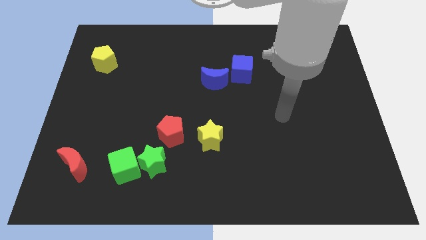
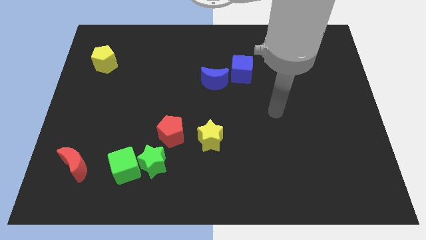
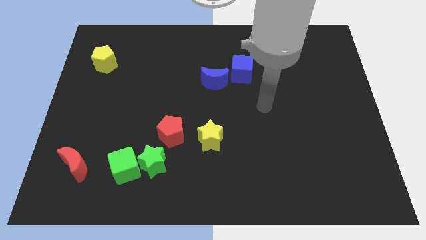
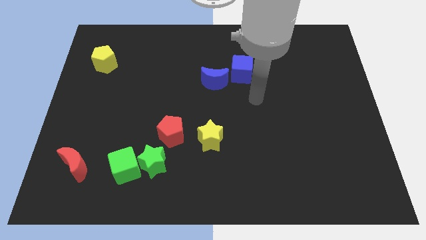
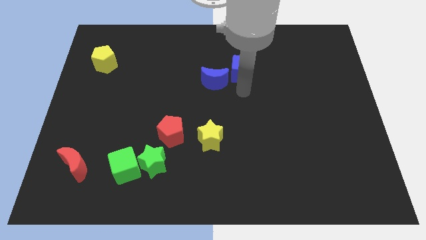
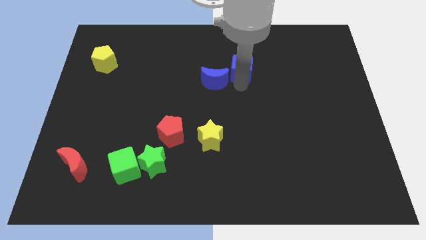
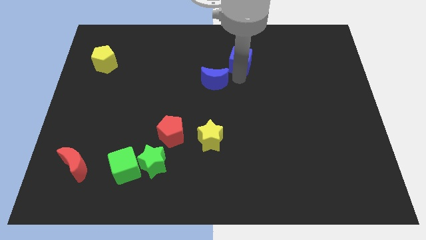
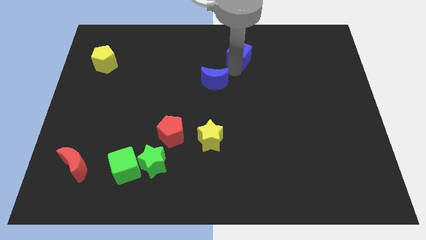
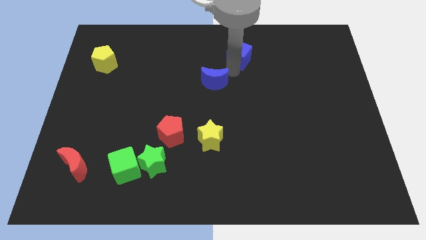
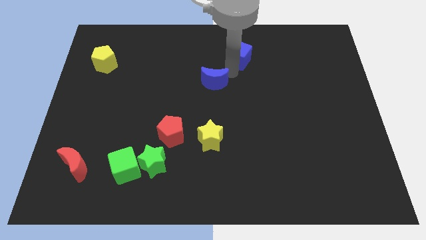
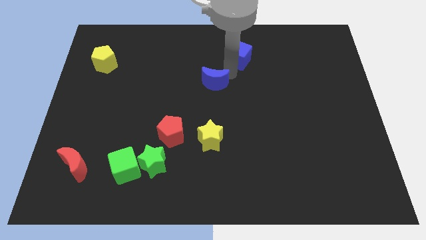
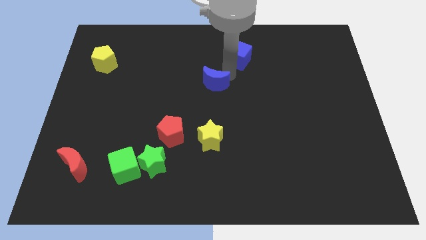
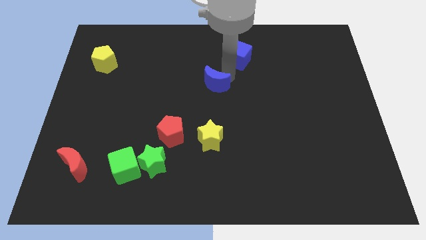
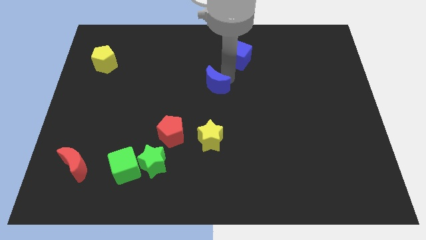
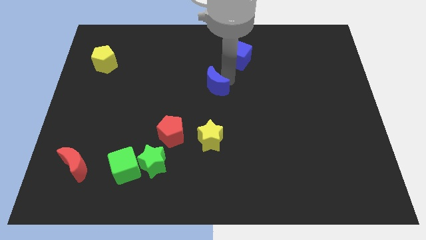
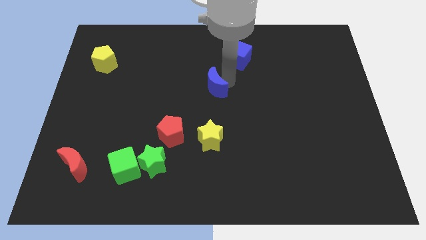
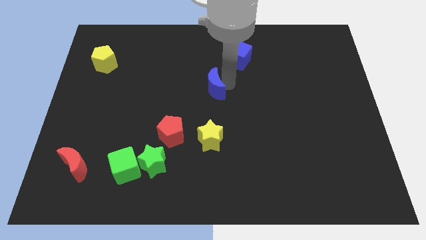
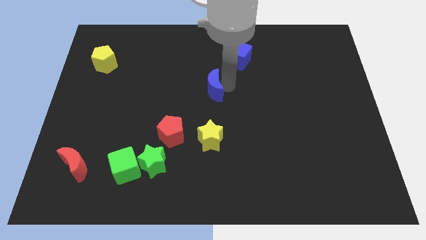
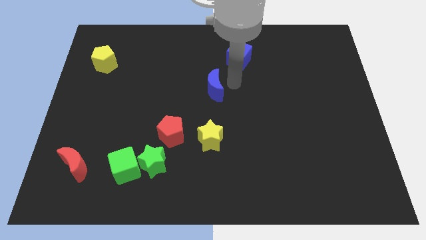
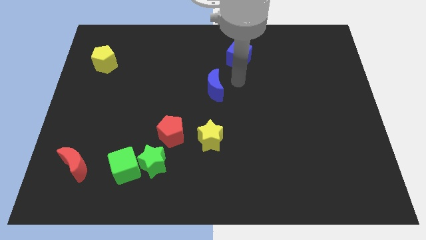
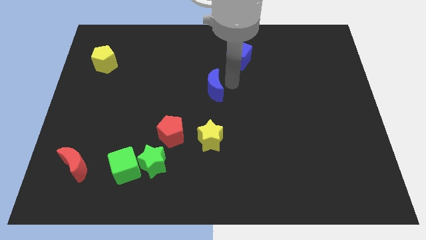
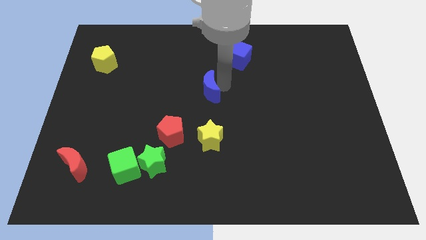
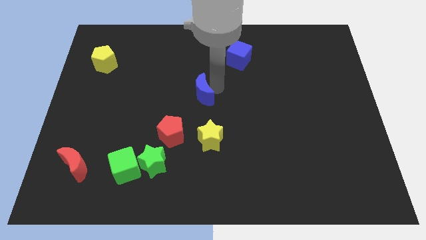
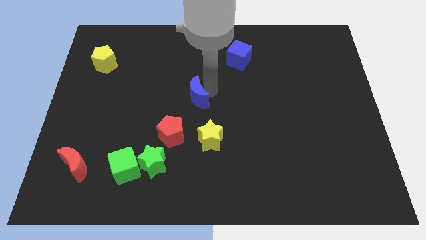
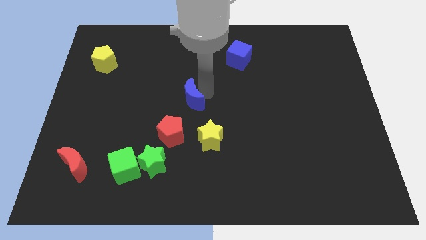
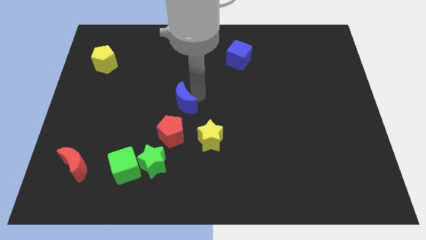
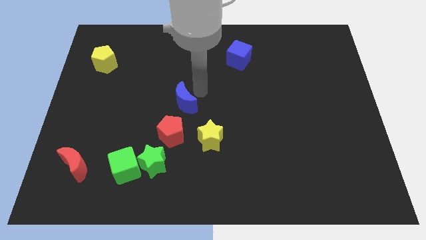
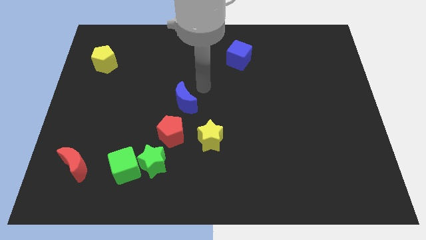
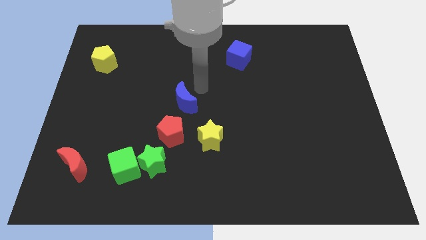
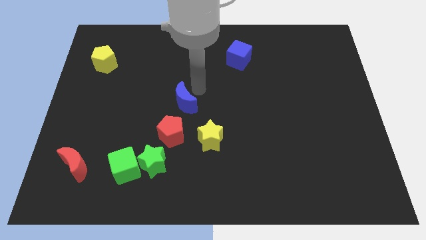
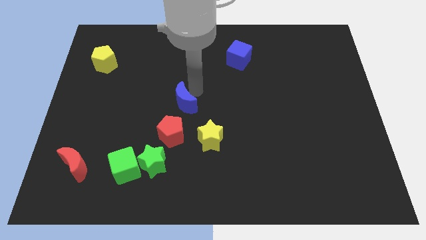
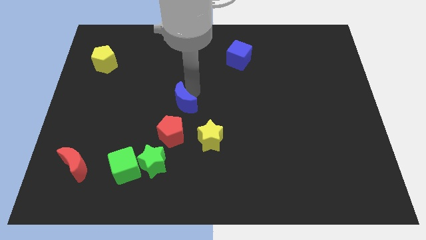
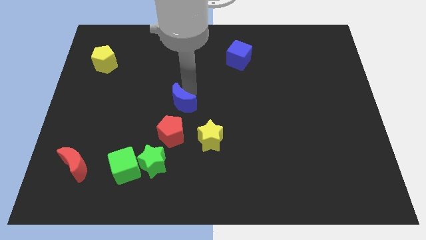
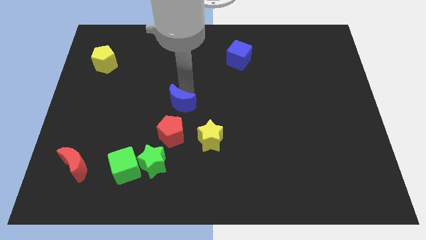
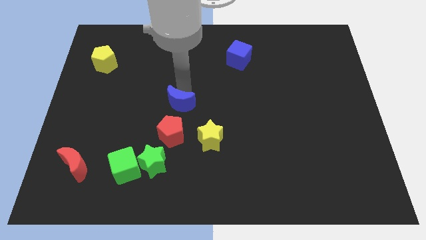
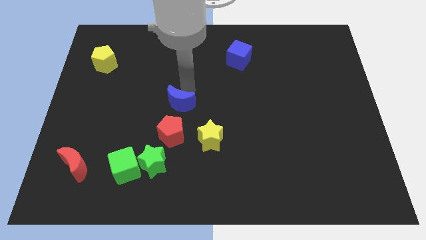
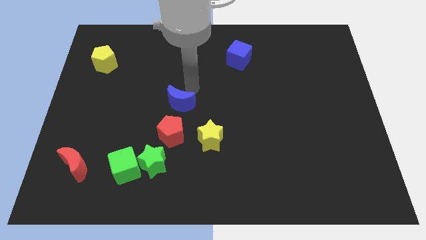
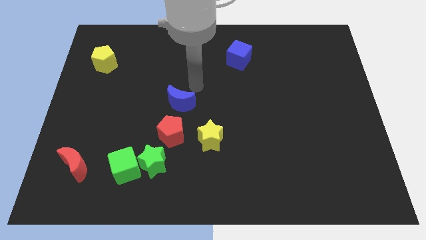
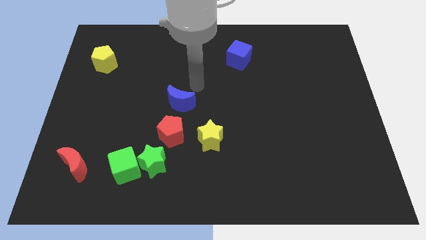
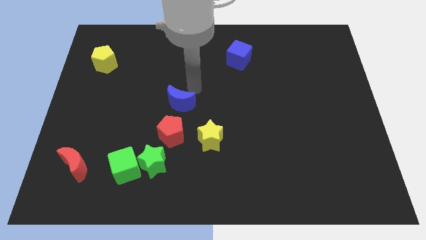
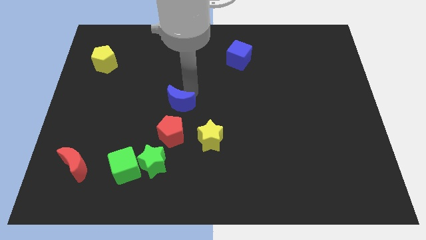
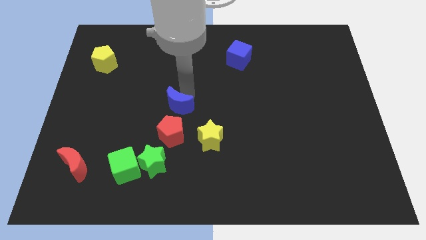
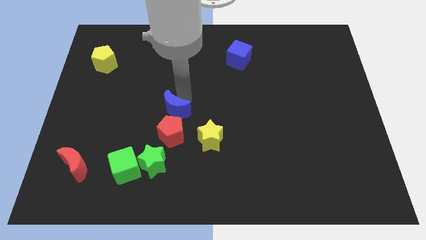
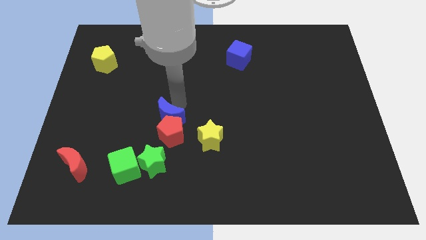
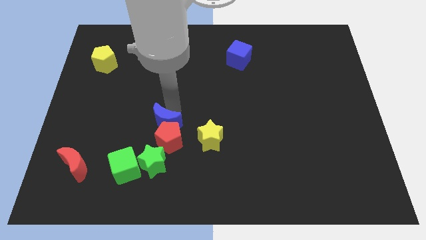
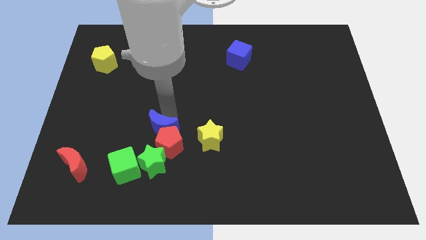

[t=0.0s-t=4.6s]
push the blue moon to the top right of the green cube

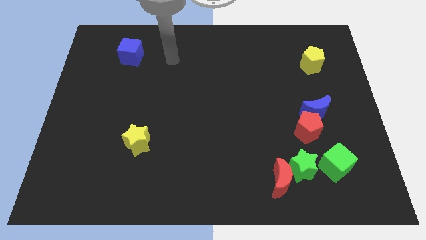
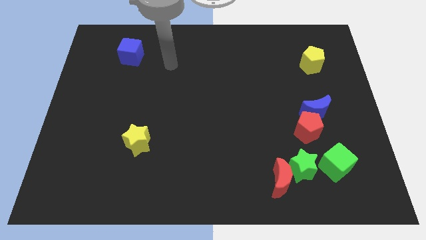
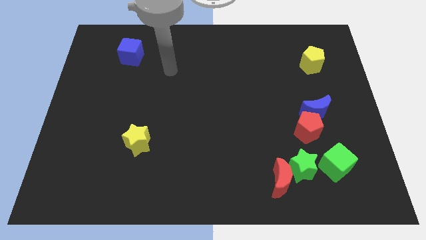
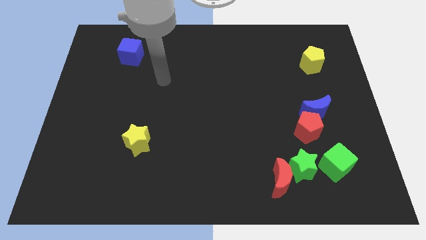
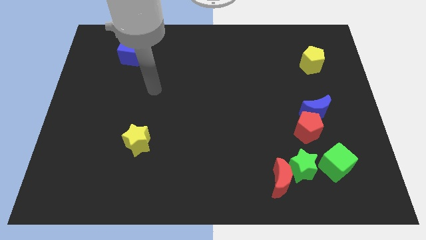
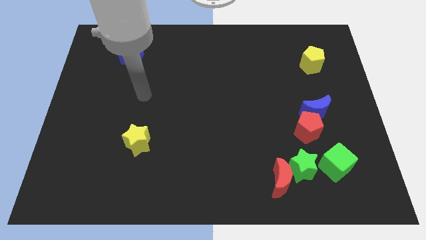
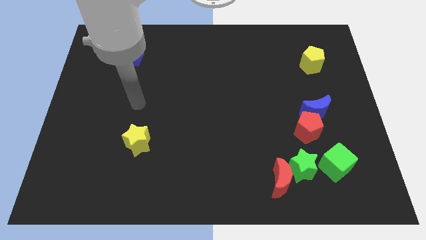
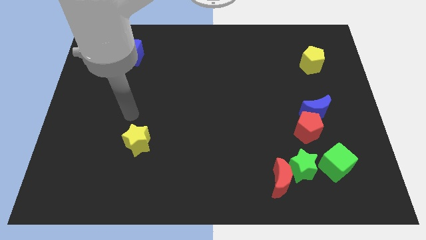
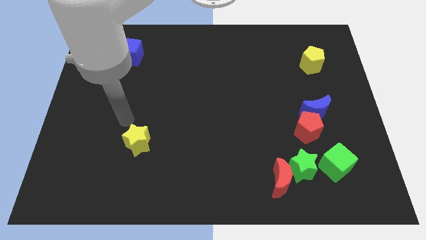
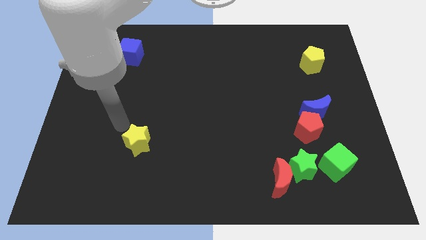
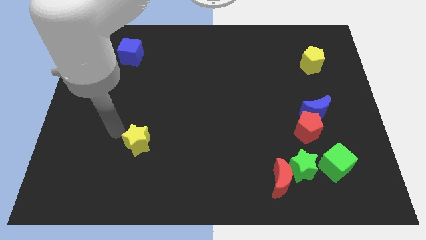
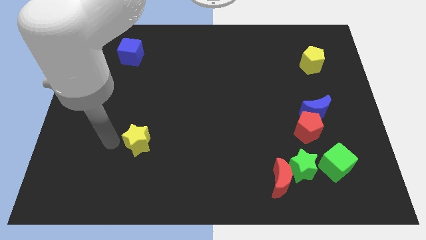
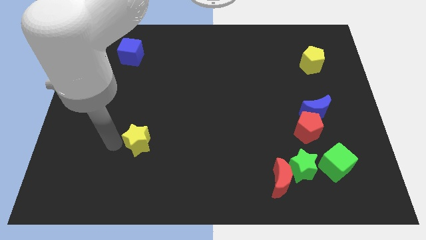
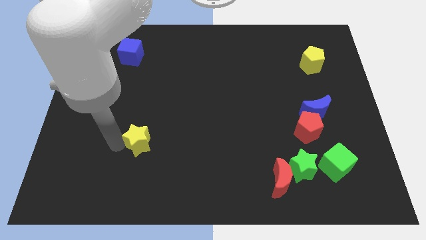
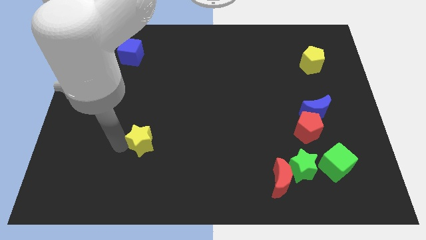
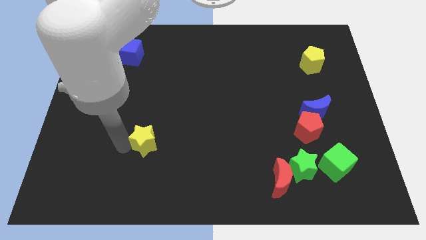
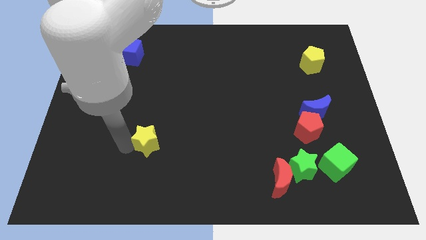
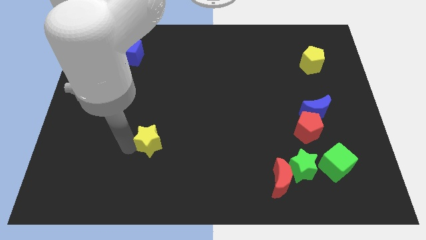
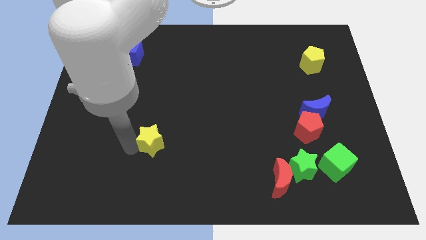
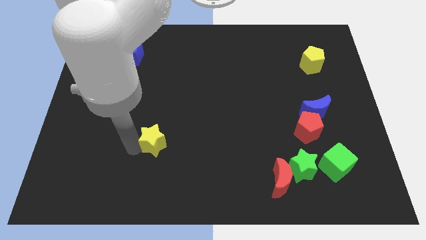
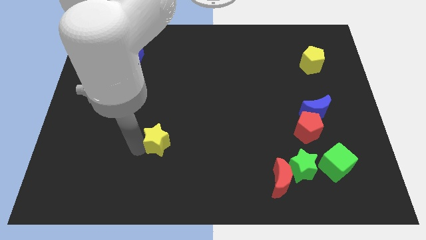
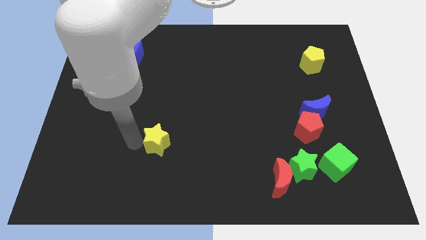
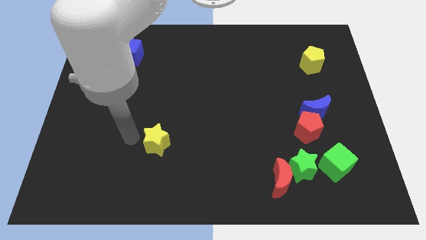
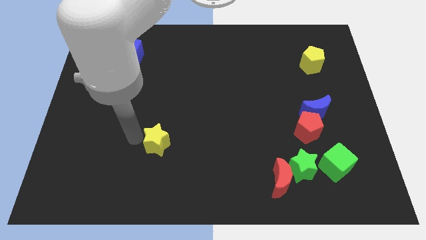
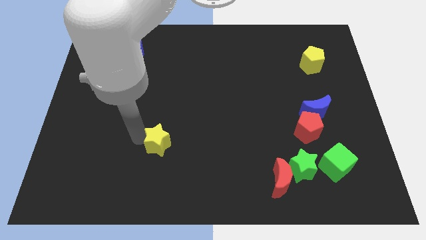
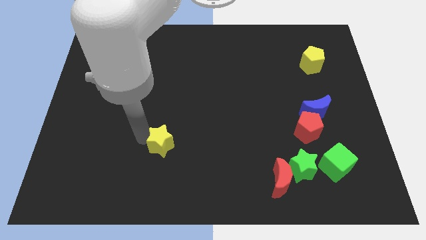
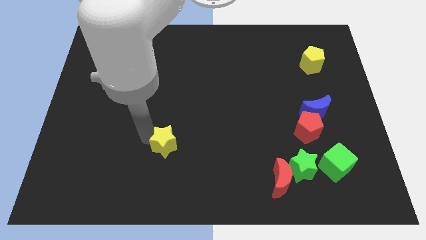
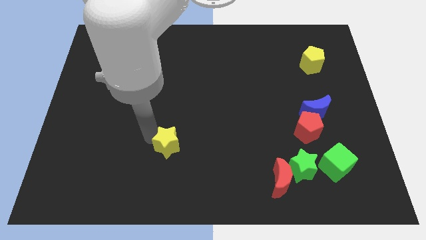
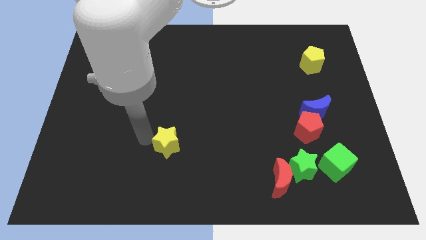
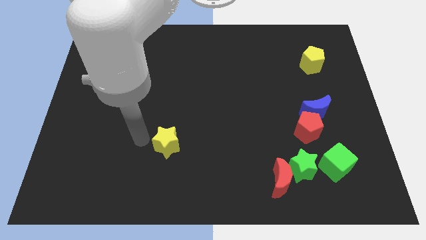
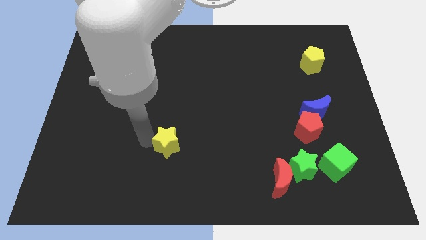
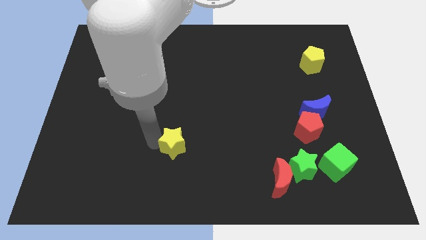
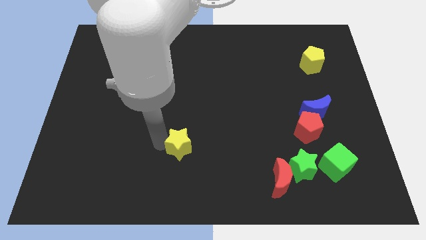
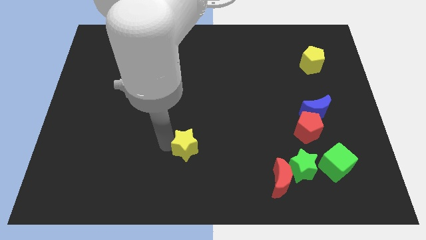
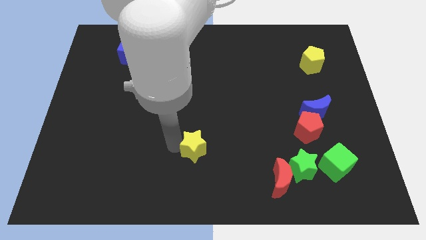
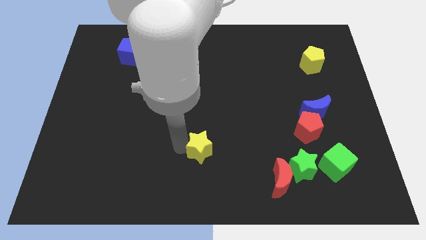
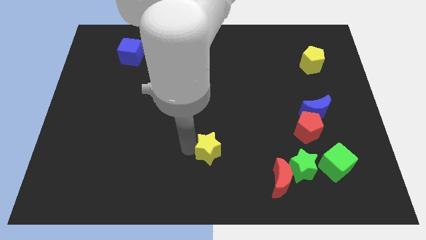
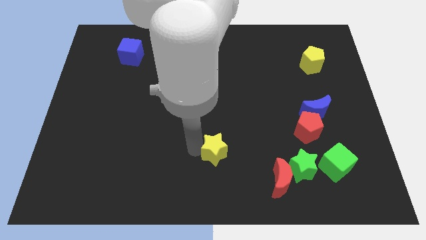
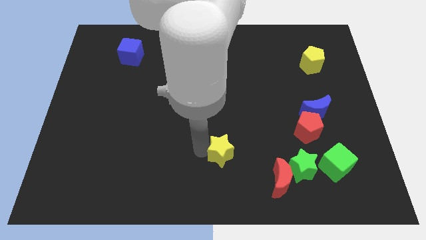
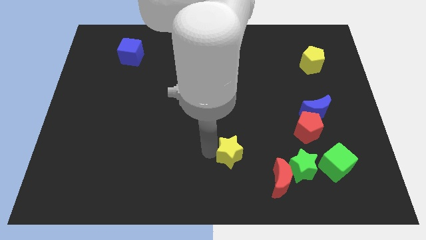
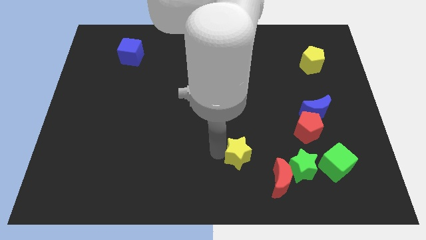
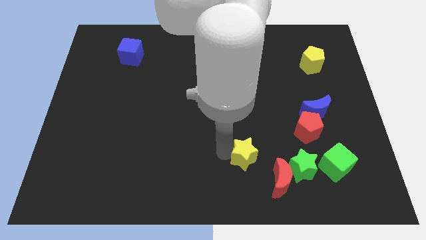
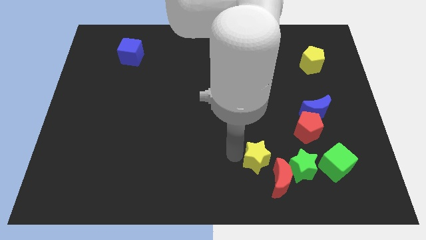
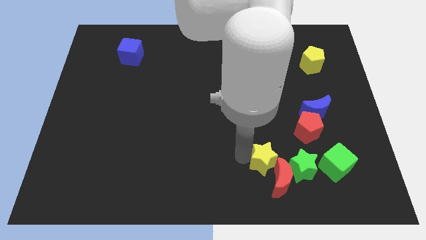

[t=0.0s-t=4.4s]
push the yellow star left of the green cube
